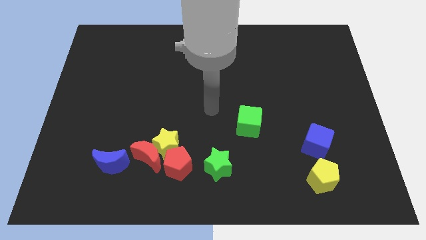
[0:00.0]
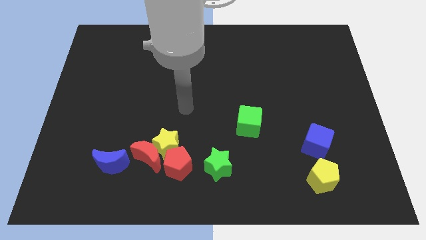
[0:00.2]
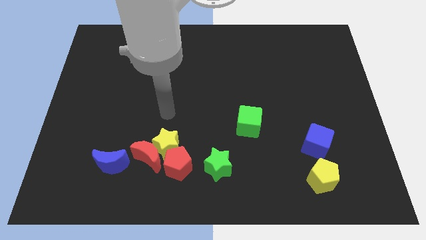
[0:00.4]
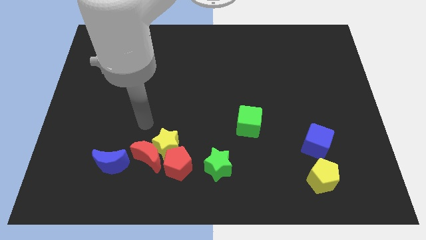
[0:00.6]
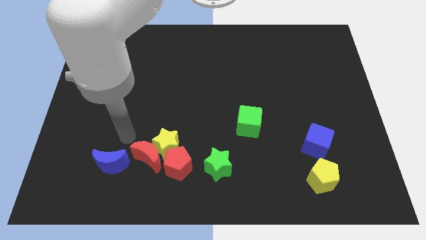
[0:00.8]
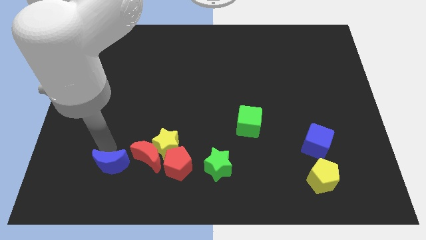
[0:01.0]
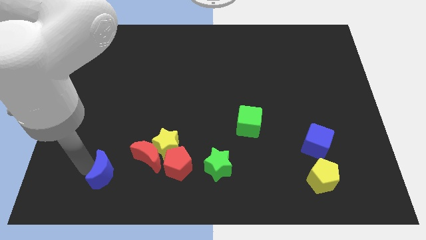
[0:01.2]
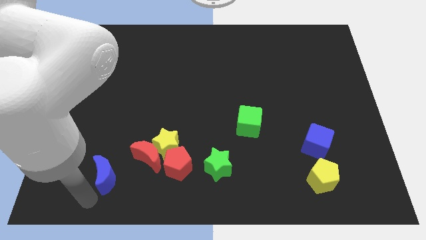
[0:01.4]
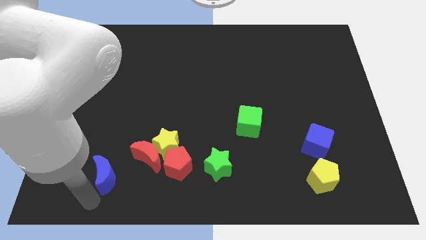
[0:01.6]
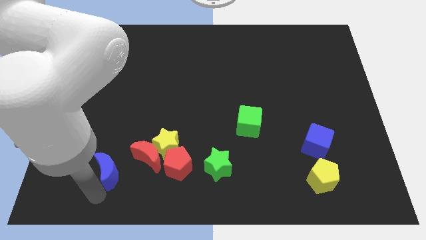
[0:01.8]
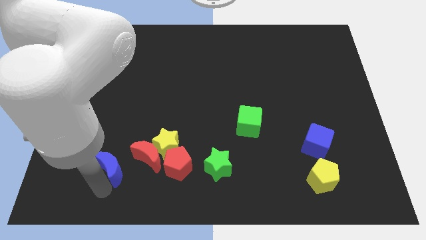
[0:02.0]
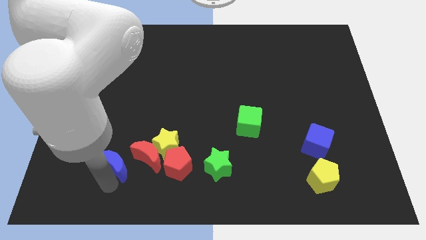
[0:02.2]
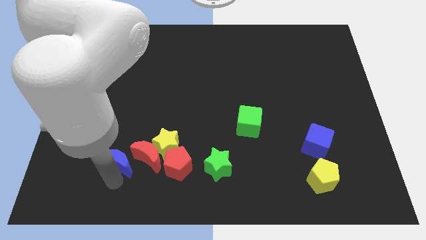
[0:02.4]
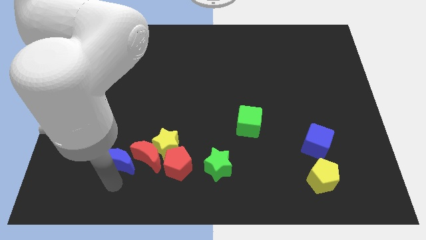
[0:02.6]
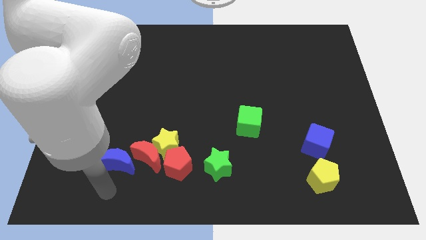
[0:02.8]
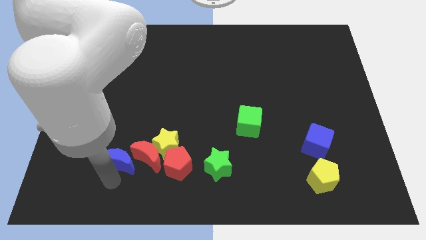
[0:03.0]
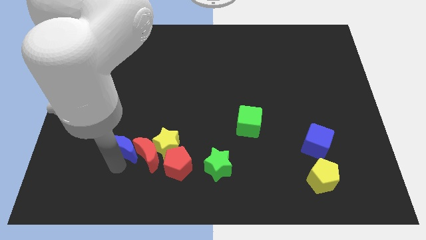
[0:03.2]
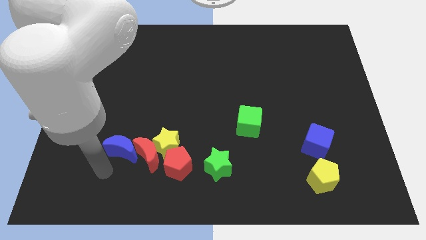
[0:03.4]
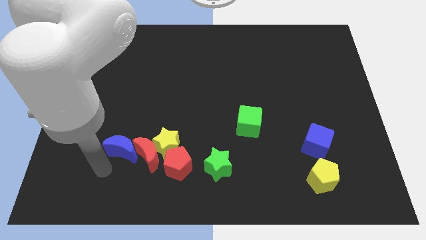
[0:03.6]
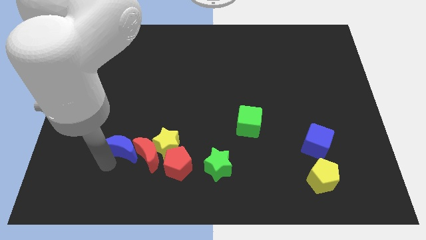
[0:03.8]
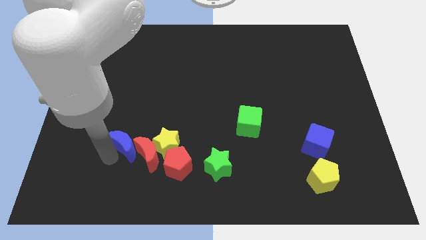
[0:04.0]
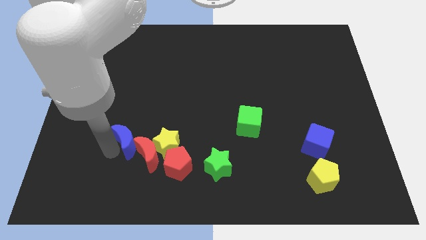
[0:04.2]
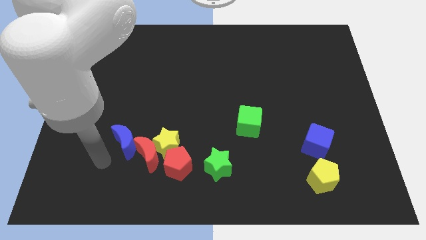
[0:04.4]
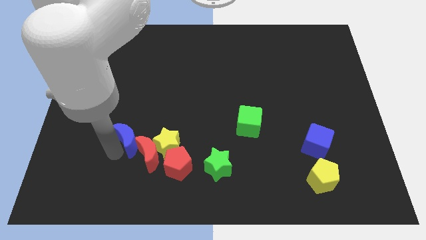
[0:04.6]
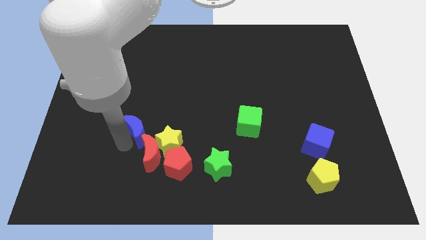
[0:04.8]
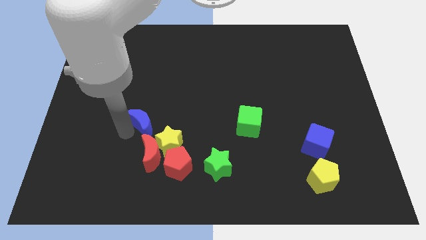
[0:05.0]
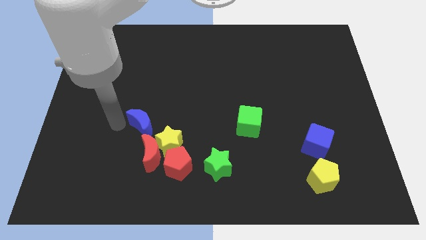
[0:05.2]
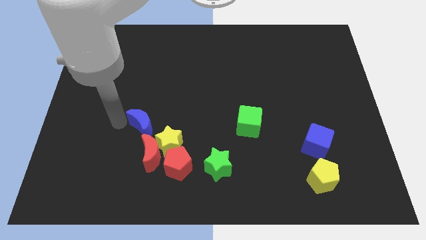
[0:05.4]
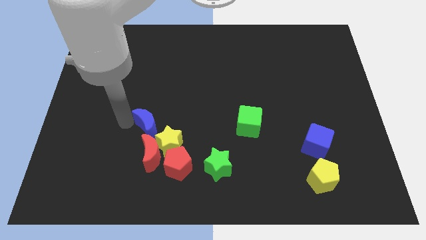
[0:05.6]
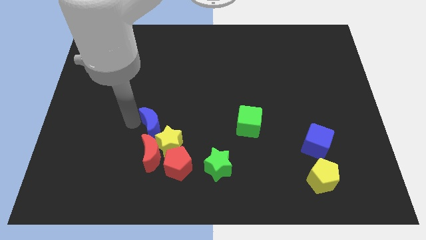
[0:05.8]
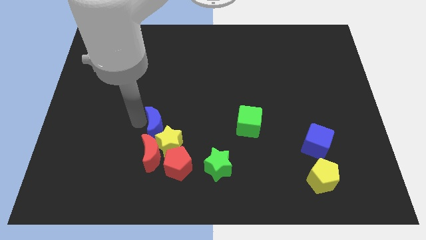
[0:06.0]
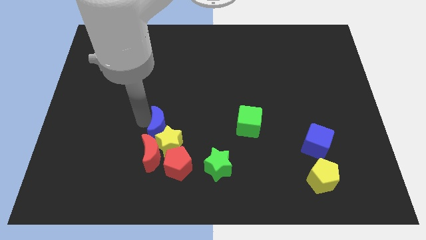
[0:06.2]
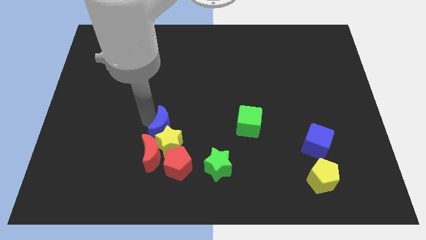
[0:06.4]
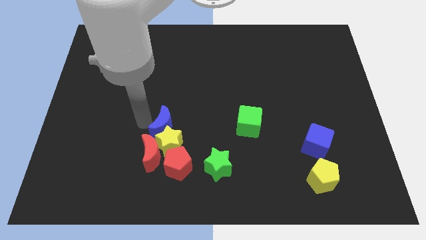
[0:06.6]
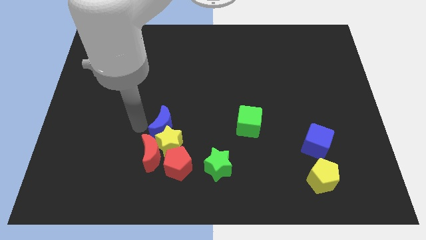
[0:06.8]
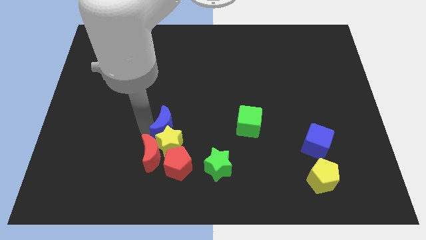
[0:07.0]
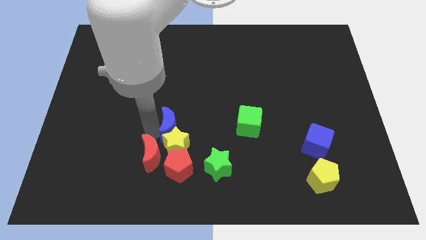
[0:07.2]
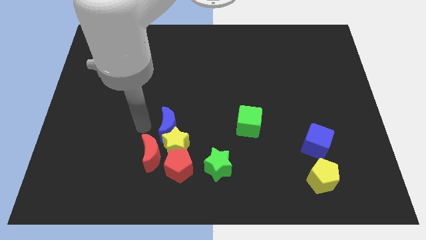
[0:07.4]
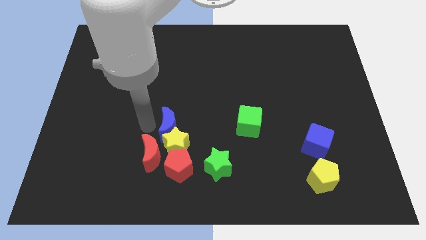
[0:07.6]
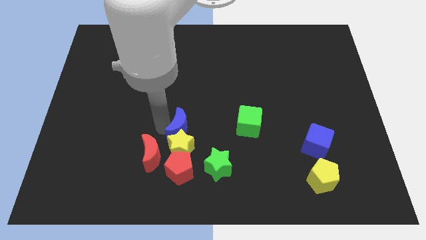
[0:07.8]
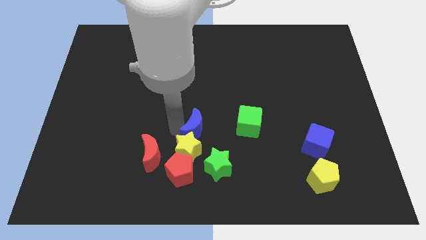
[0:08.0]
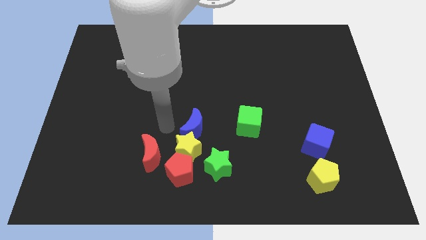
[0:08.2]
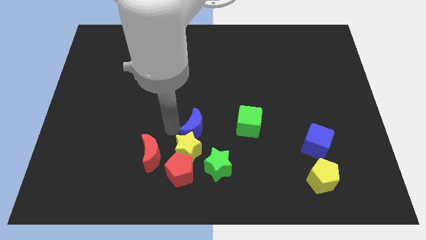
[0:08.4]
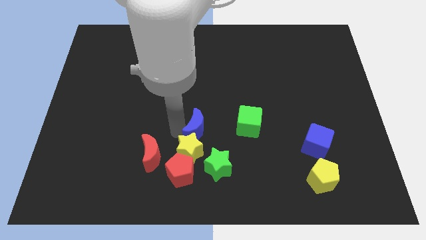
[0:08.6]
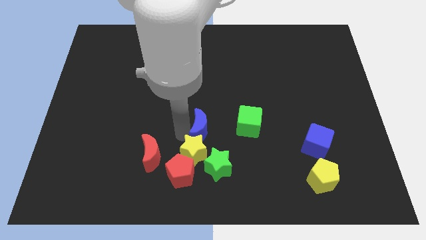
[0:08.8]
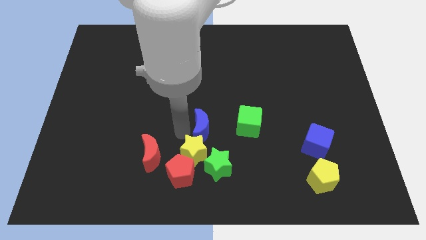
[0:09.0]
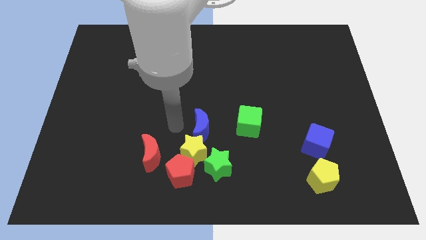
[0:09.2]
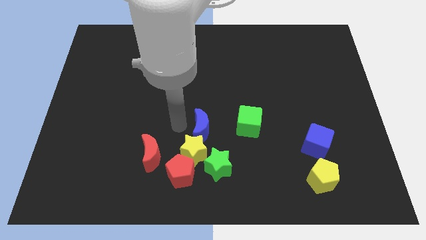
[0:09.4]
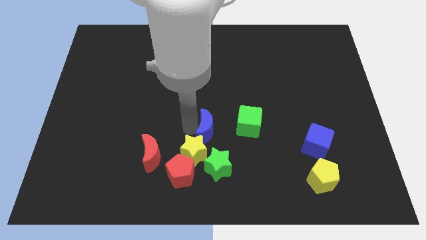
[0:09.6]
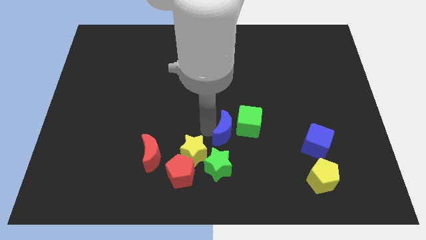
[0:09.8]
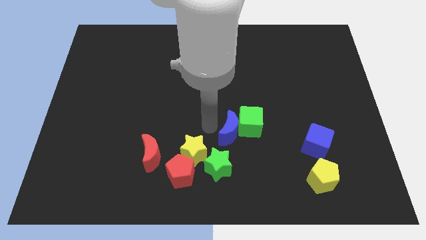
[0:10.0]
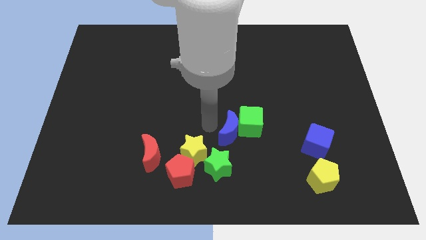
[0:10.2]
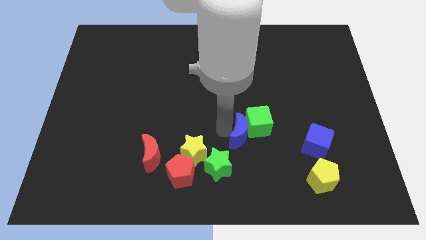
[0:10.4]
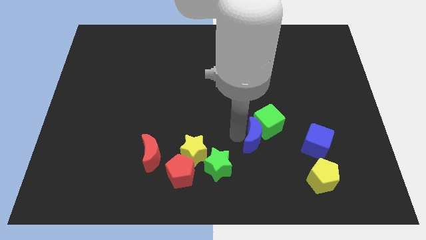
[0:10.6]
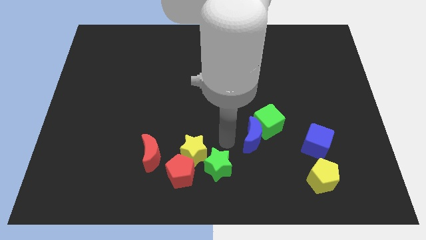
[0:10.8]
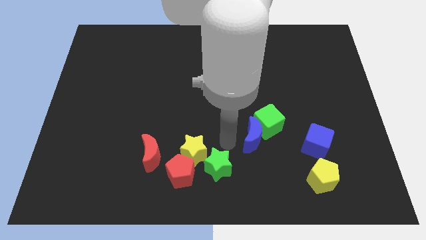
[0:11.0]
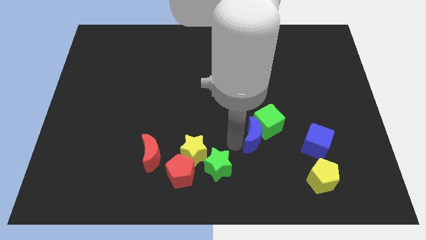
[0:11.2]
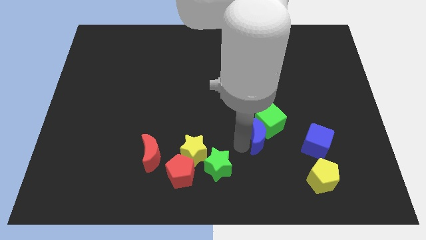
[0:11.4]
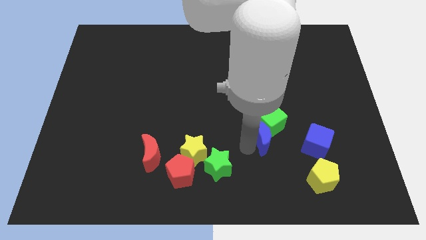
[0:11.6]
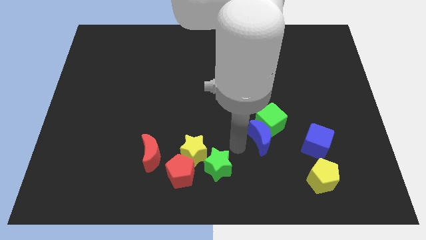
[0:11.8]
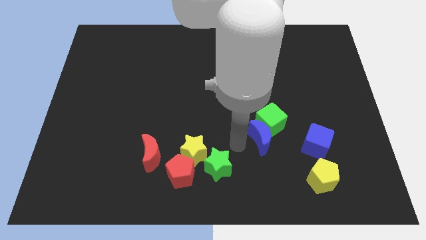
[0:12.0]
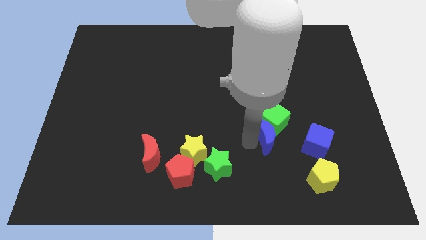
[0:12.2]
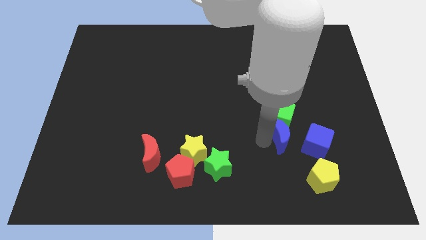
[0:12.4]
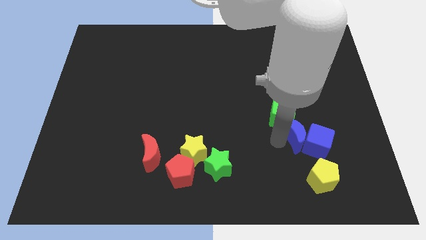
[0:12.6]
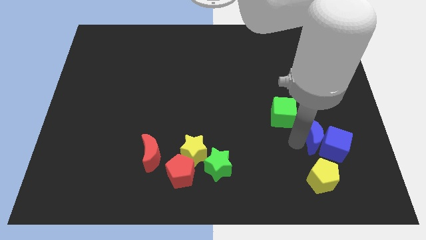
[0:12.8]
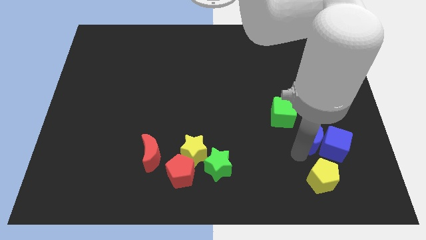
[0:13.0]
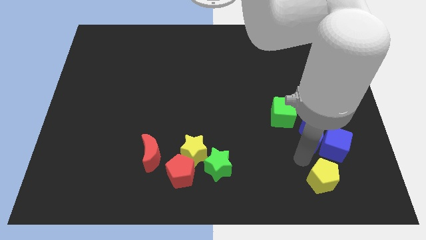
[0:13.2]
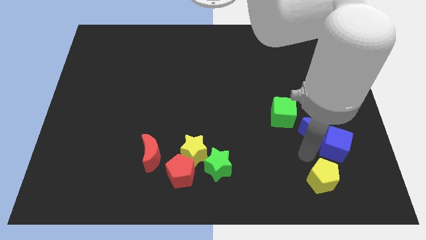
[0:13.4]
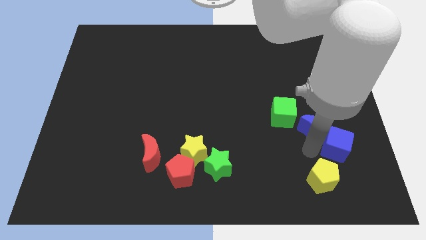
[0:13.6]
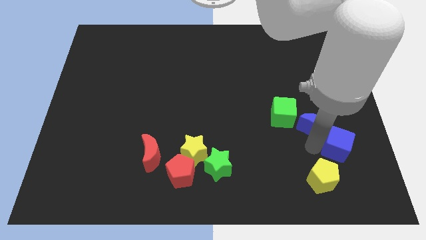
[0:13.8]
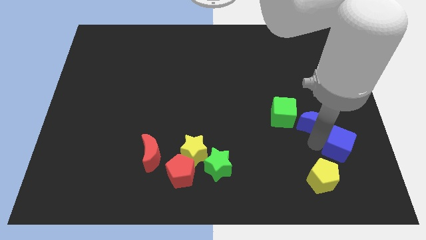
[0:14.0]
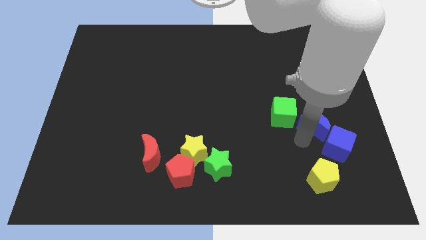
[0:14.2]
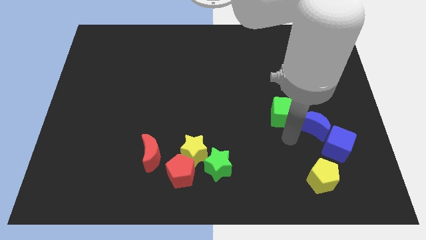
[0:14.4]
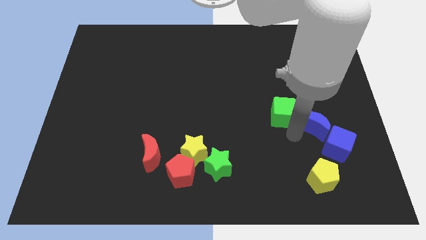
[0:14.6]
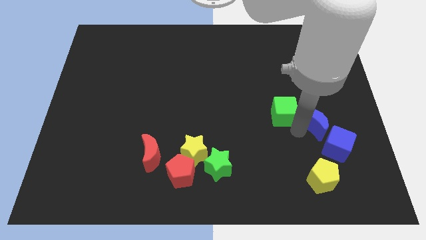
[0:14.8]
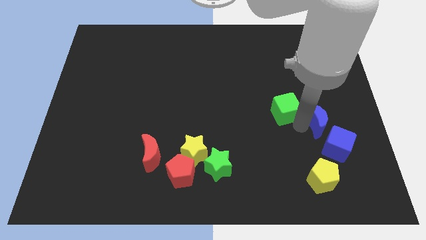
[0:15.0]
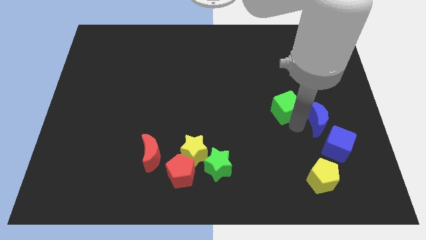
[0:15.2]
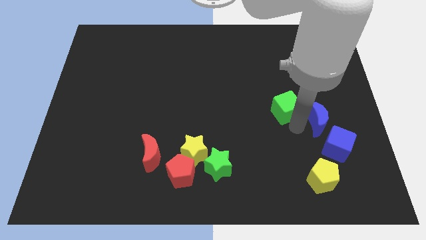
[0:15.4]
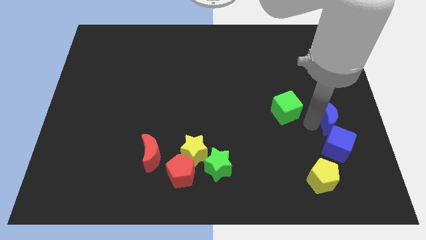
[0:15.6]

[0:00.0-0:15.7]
put the blue moon to the right side
